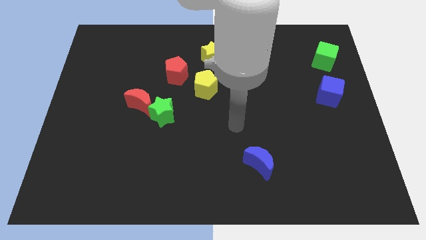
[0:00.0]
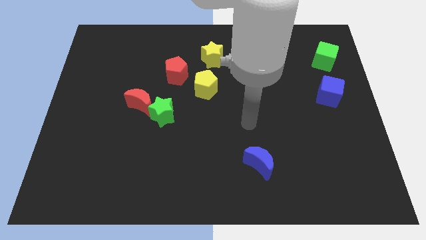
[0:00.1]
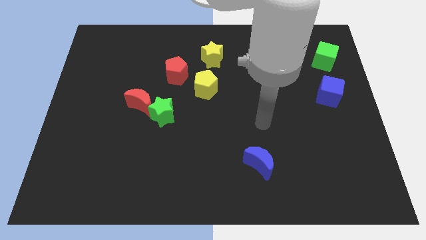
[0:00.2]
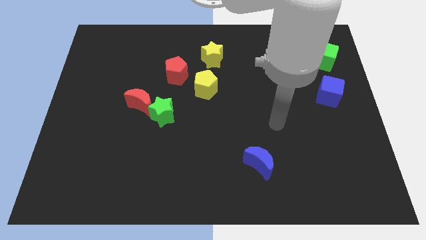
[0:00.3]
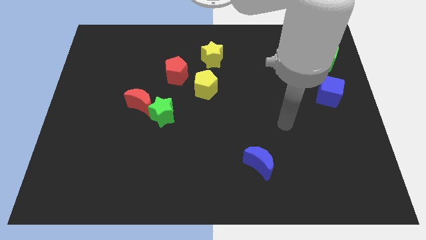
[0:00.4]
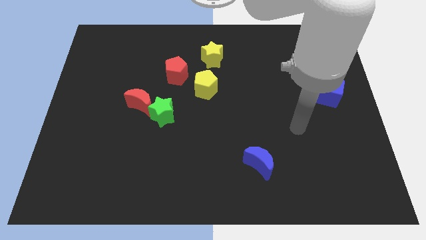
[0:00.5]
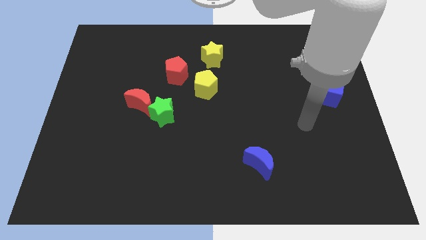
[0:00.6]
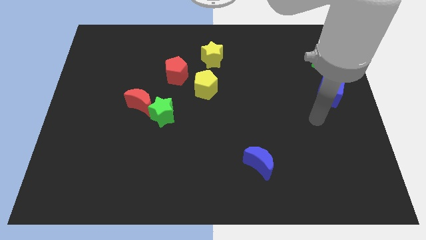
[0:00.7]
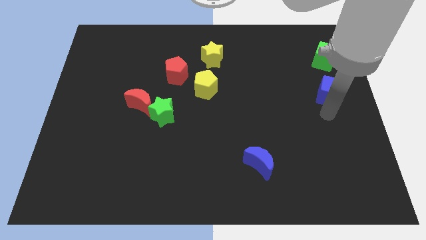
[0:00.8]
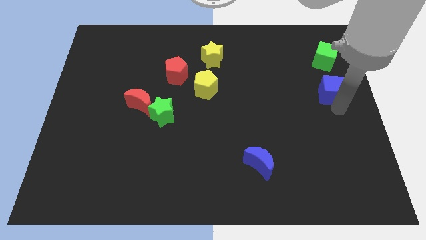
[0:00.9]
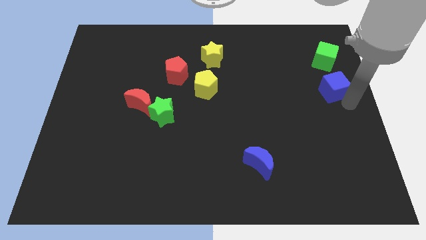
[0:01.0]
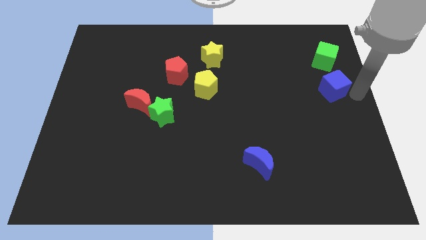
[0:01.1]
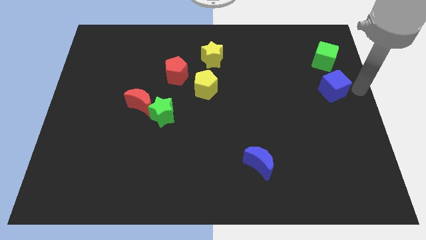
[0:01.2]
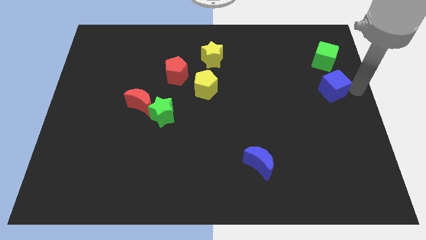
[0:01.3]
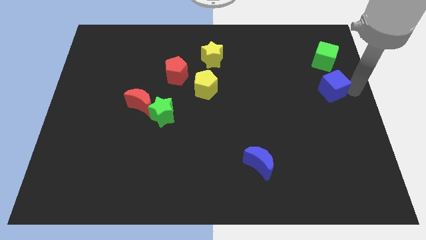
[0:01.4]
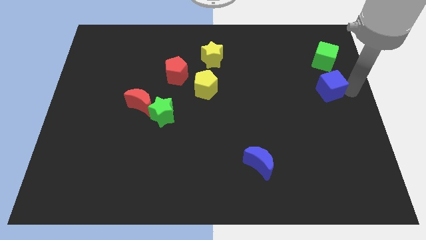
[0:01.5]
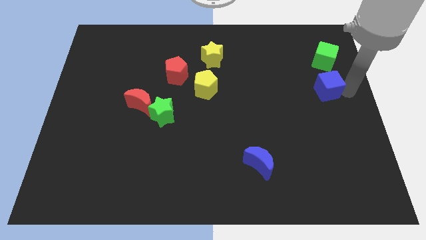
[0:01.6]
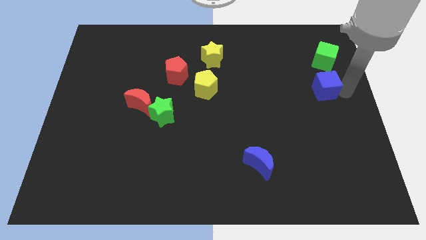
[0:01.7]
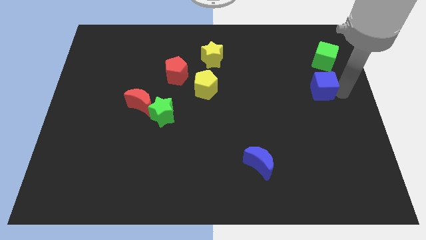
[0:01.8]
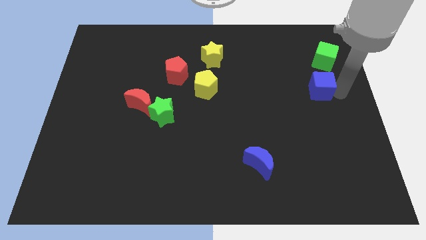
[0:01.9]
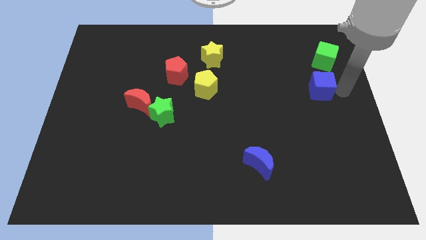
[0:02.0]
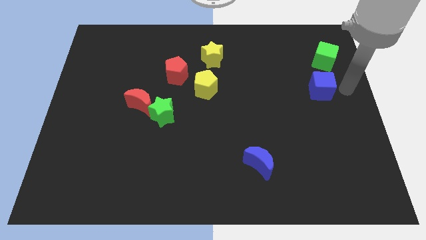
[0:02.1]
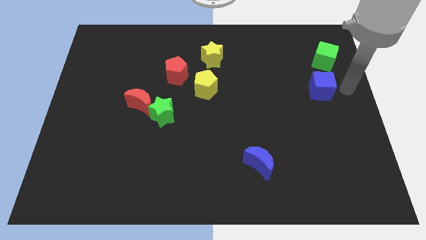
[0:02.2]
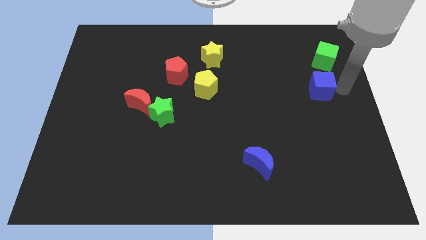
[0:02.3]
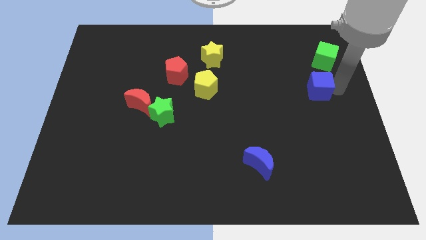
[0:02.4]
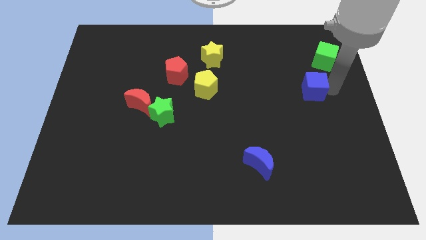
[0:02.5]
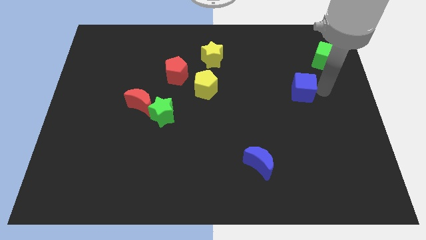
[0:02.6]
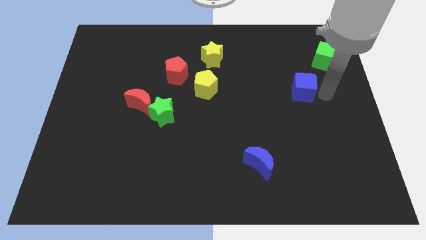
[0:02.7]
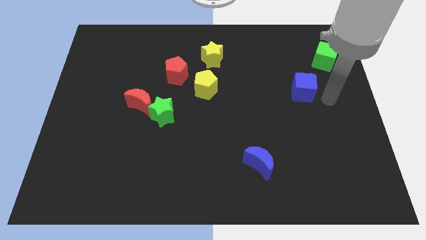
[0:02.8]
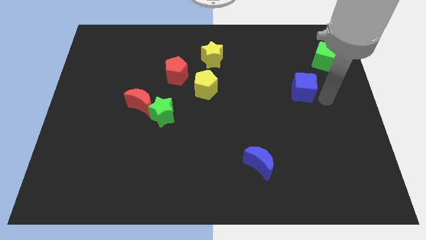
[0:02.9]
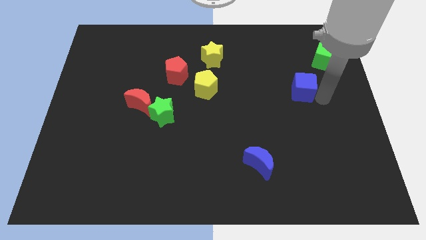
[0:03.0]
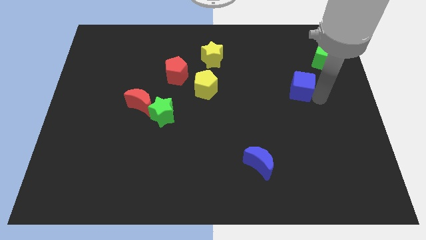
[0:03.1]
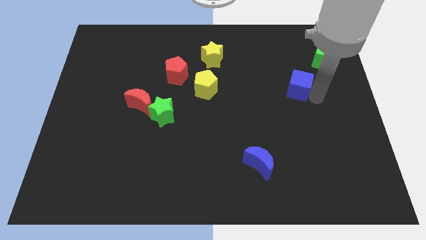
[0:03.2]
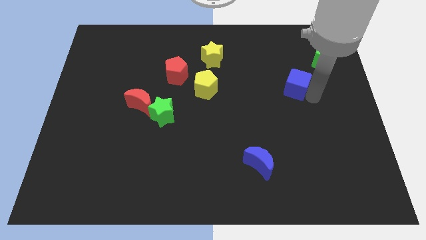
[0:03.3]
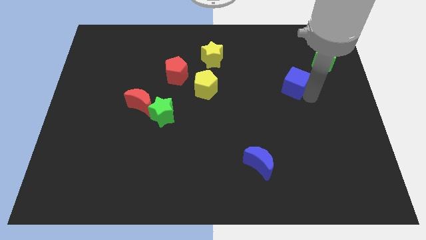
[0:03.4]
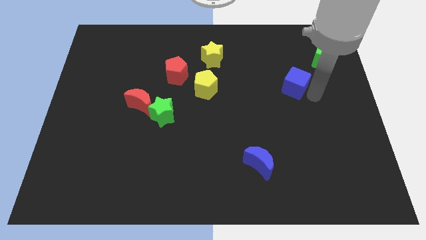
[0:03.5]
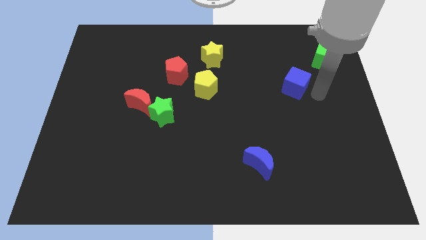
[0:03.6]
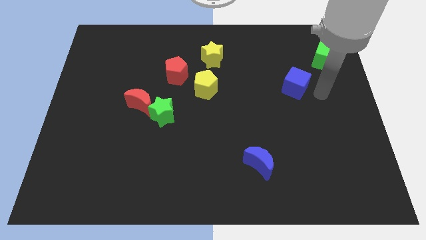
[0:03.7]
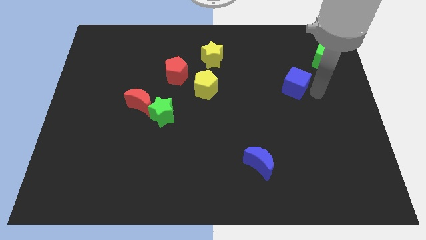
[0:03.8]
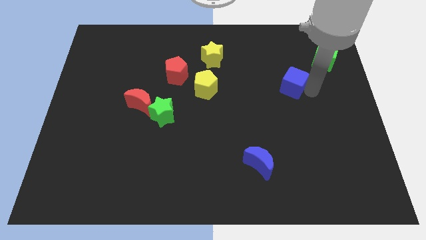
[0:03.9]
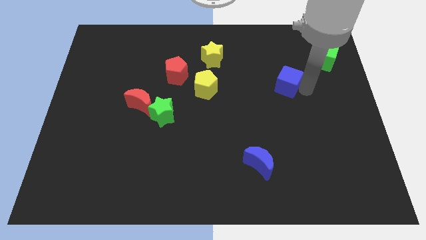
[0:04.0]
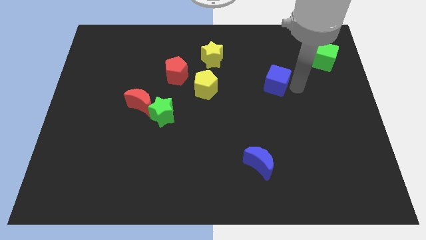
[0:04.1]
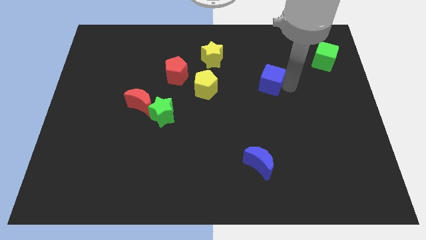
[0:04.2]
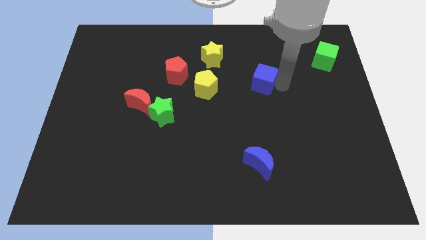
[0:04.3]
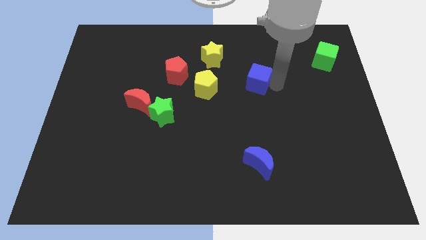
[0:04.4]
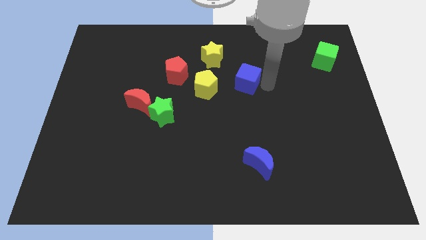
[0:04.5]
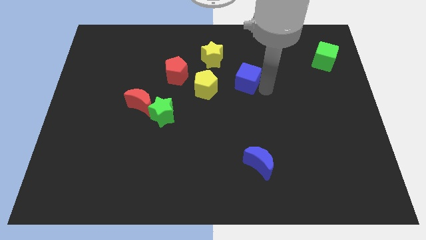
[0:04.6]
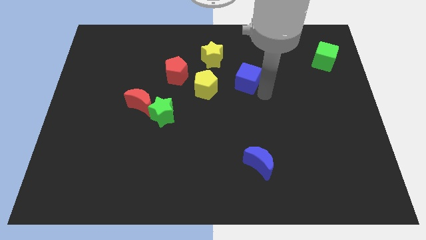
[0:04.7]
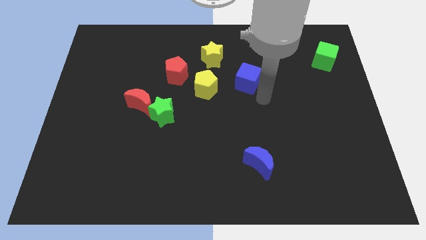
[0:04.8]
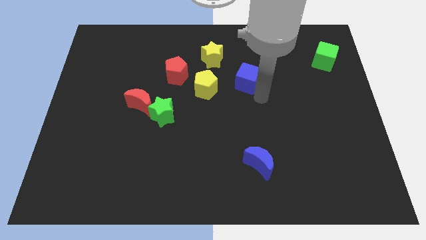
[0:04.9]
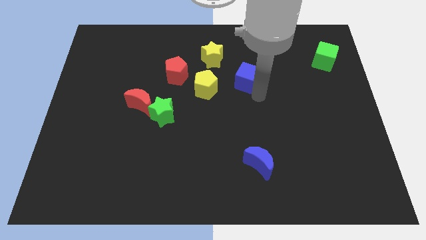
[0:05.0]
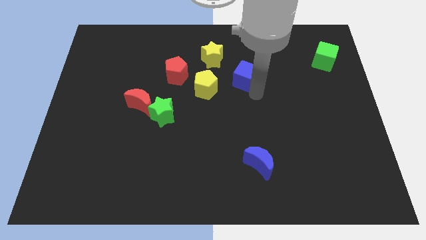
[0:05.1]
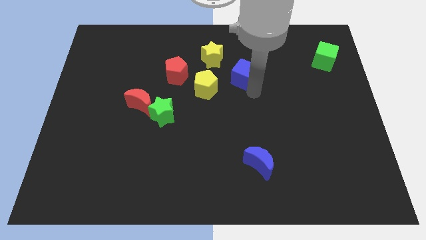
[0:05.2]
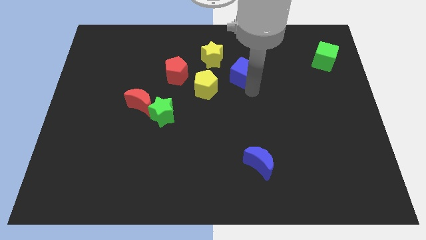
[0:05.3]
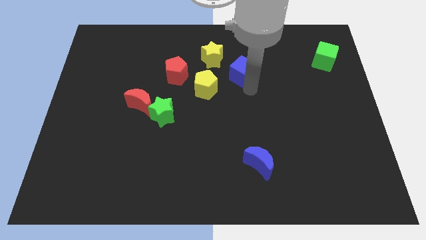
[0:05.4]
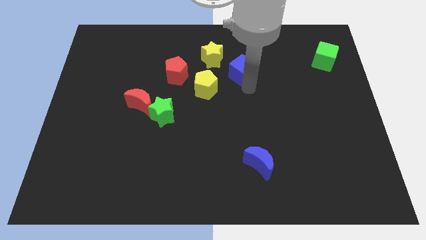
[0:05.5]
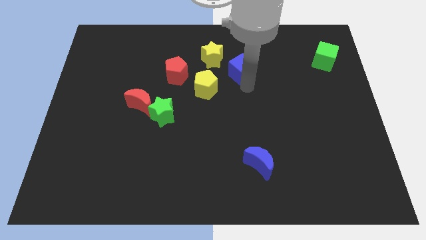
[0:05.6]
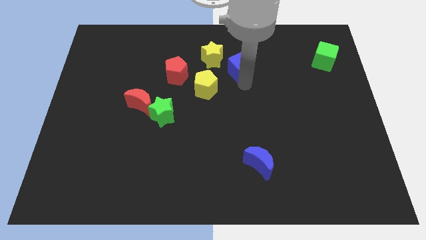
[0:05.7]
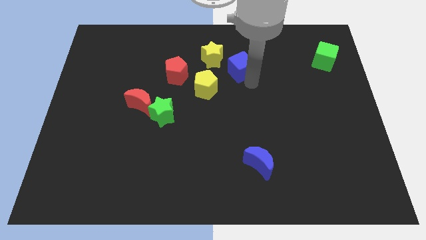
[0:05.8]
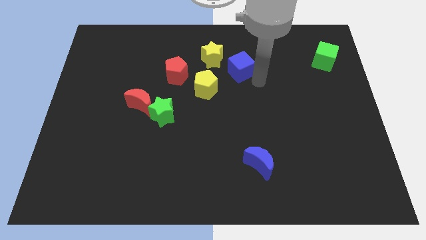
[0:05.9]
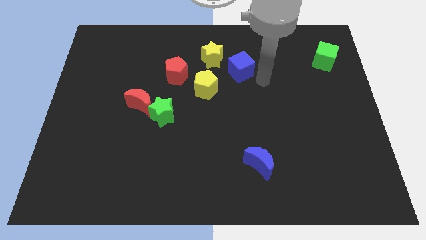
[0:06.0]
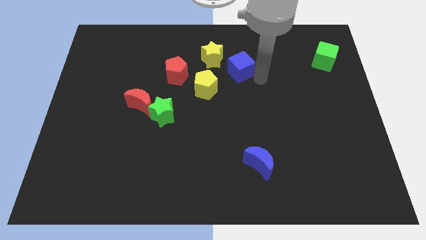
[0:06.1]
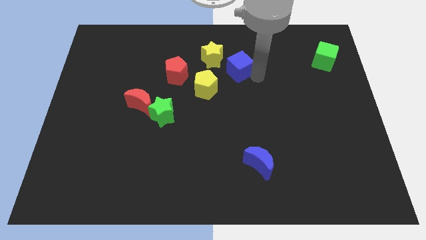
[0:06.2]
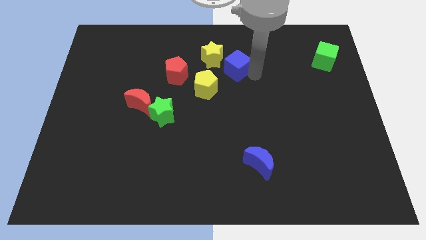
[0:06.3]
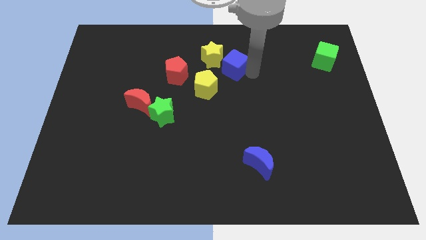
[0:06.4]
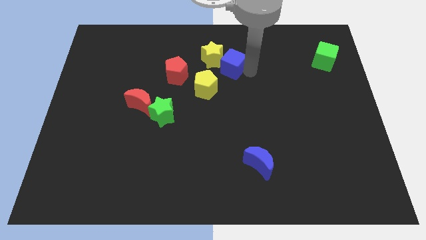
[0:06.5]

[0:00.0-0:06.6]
push the blue cube close to the yellow star

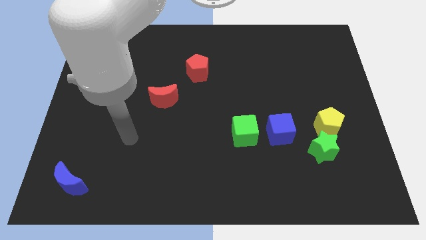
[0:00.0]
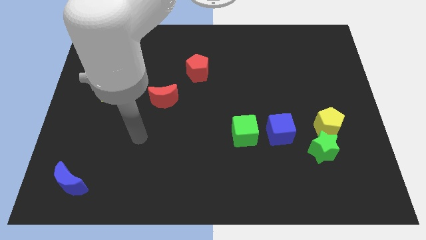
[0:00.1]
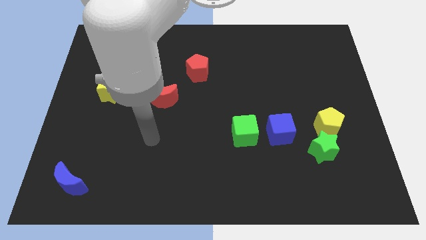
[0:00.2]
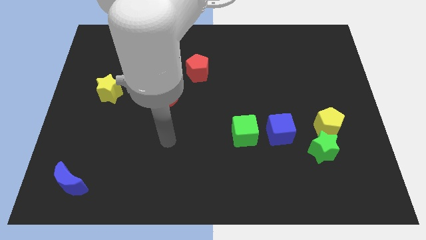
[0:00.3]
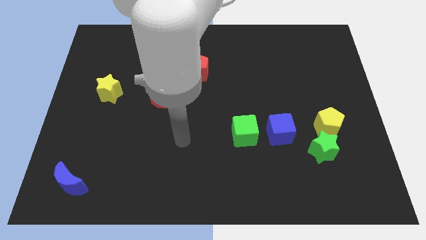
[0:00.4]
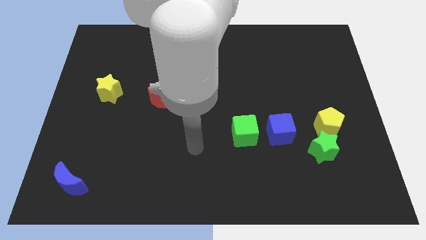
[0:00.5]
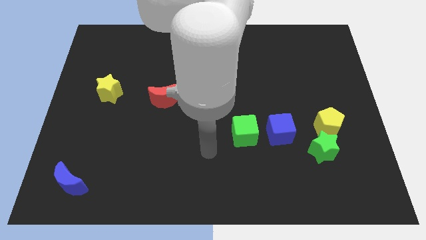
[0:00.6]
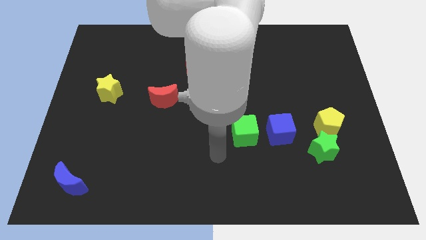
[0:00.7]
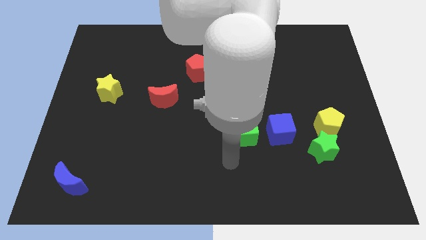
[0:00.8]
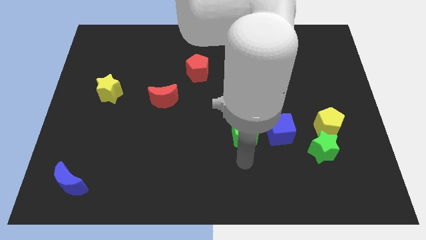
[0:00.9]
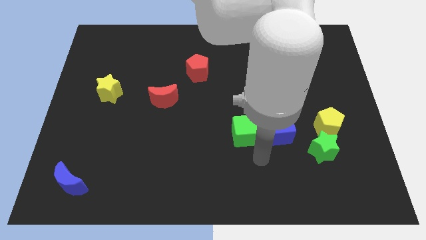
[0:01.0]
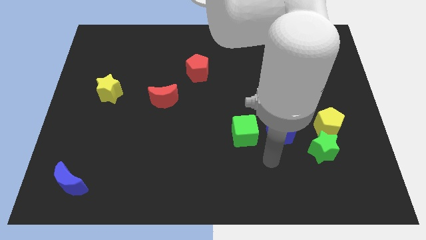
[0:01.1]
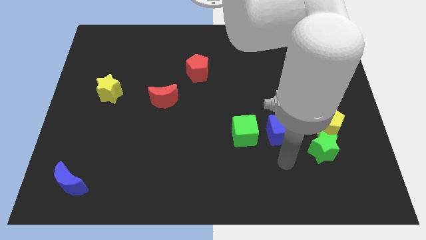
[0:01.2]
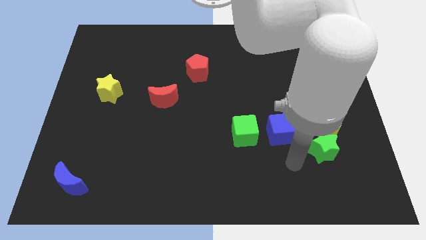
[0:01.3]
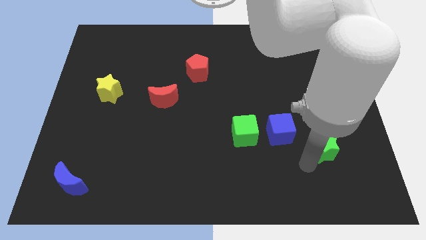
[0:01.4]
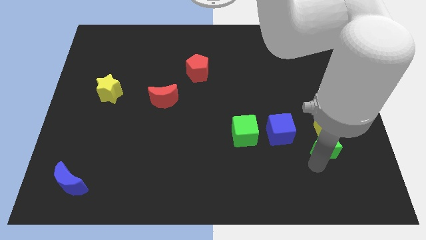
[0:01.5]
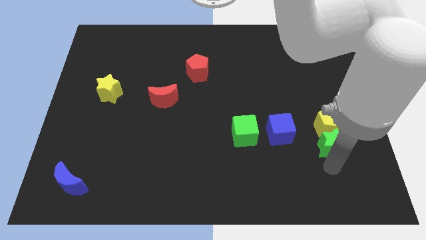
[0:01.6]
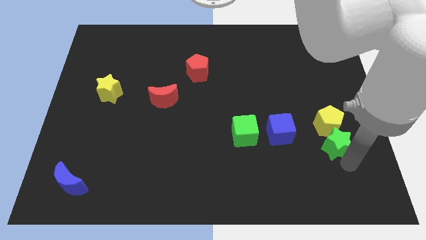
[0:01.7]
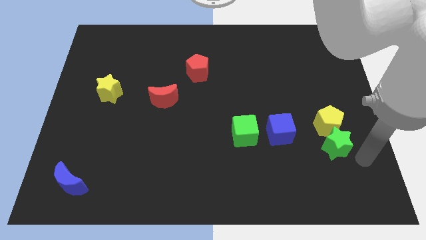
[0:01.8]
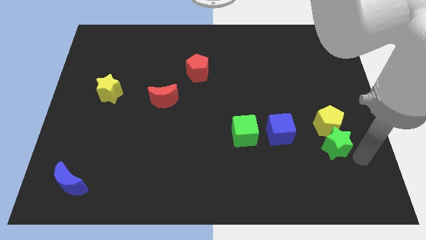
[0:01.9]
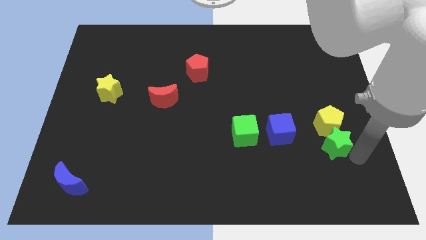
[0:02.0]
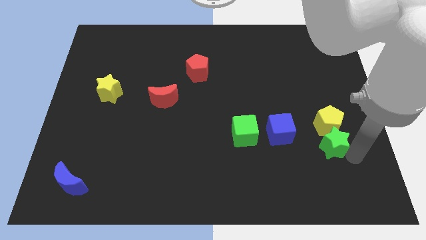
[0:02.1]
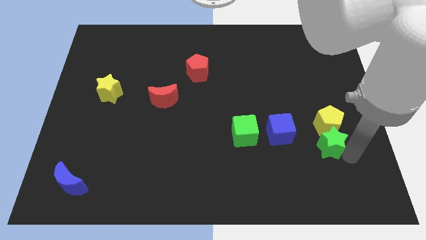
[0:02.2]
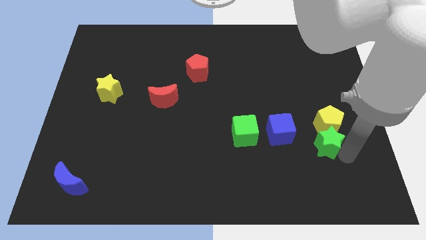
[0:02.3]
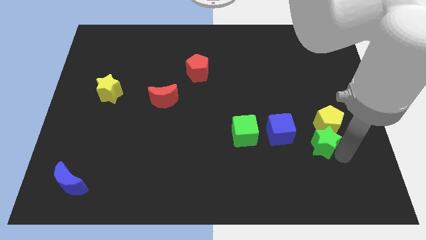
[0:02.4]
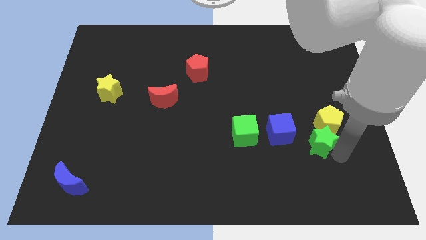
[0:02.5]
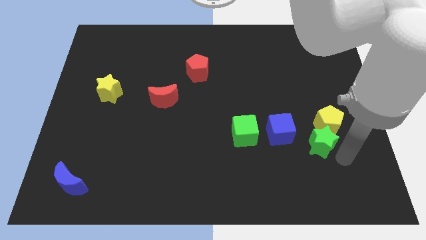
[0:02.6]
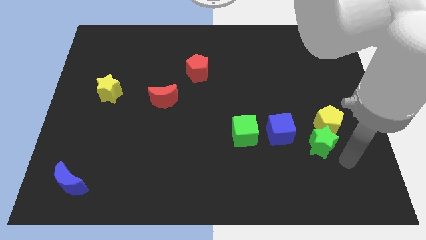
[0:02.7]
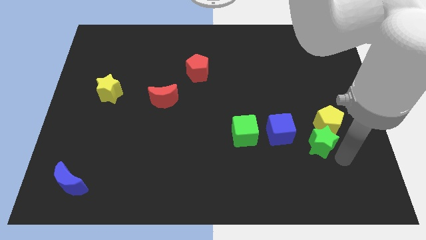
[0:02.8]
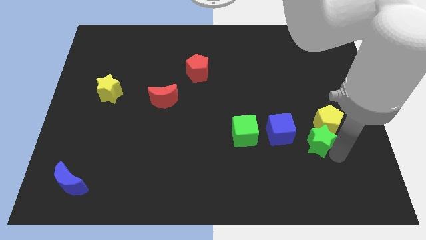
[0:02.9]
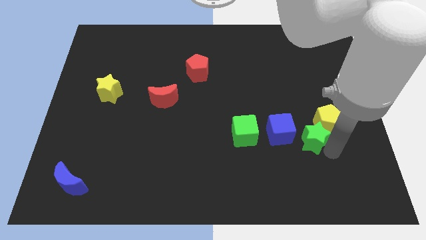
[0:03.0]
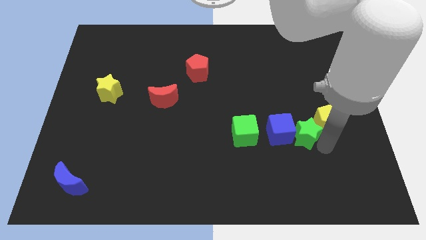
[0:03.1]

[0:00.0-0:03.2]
push the green star towards the blue cube
